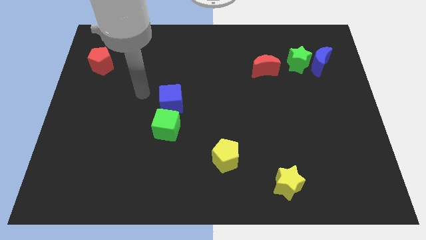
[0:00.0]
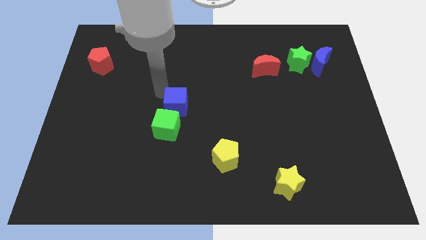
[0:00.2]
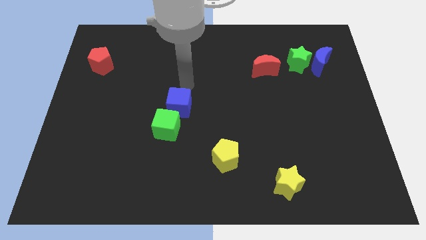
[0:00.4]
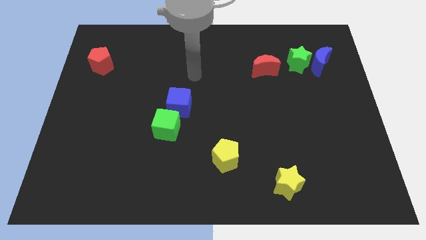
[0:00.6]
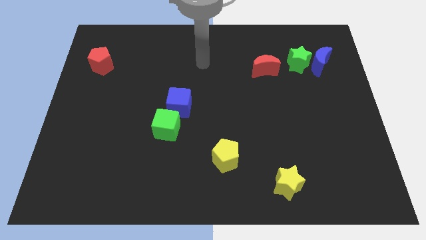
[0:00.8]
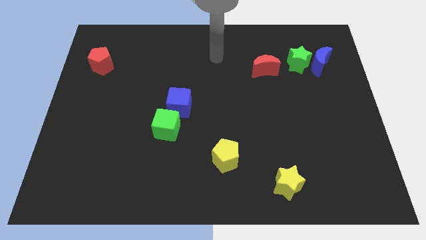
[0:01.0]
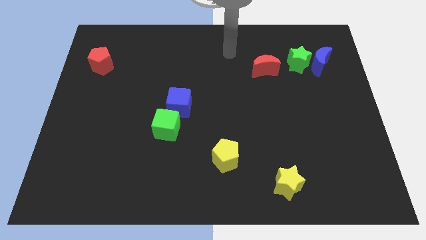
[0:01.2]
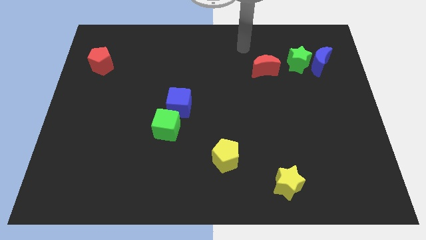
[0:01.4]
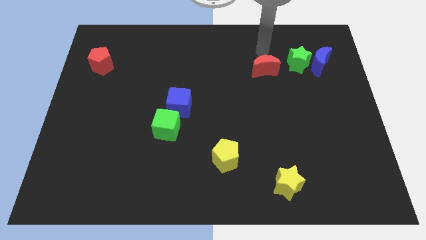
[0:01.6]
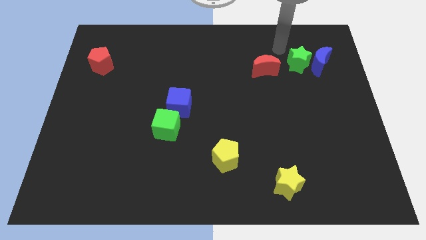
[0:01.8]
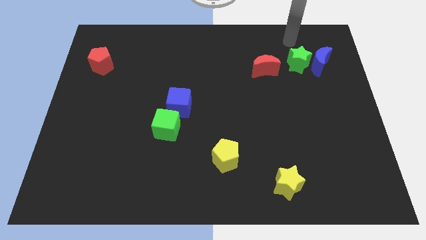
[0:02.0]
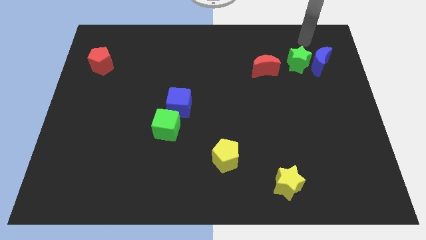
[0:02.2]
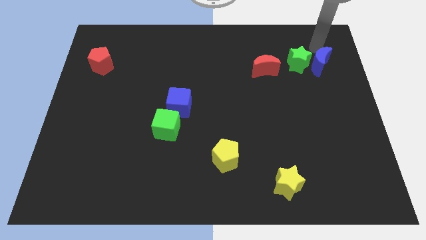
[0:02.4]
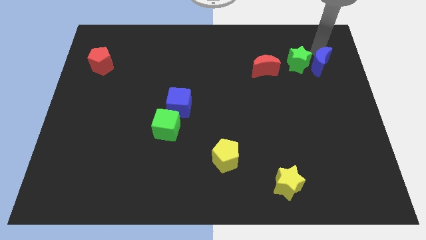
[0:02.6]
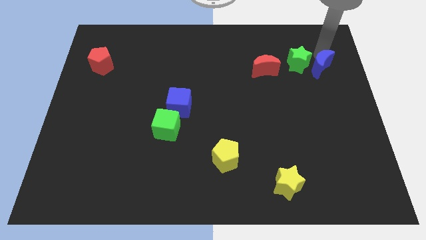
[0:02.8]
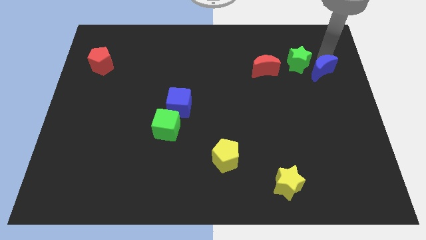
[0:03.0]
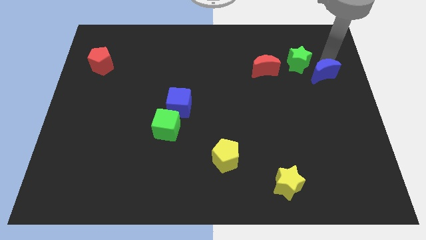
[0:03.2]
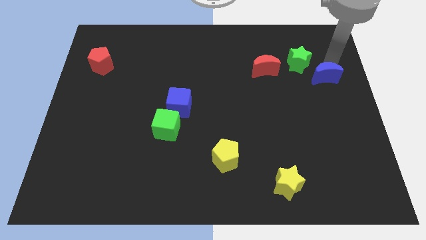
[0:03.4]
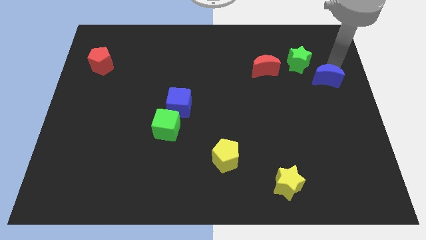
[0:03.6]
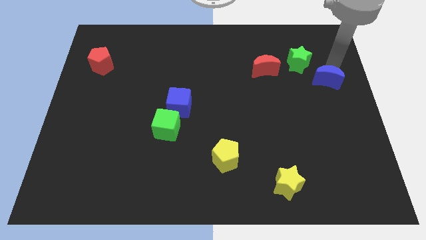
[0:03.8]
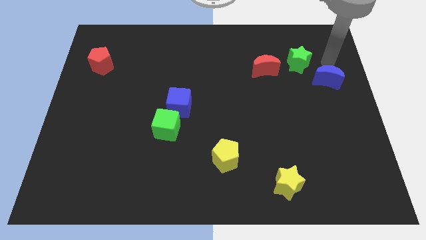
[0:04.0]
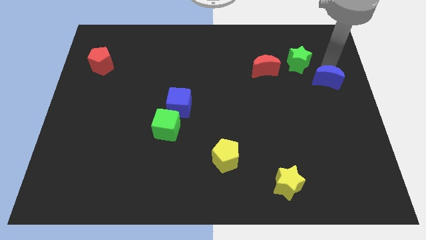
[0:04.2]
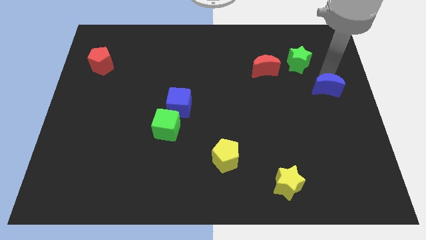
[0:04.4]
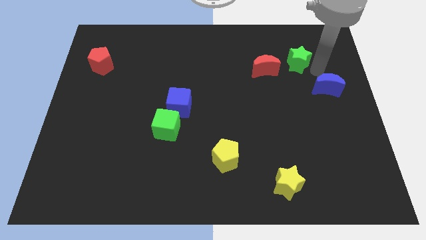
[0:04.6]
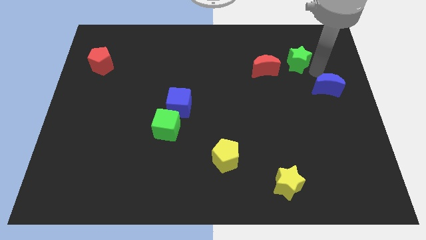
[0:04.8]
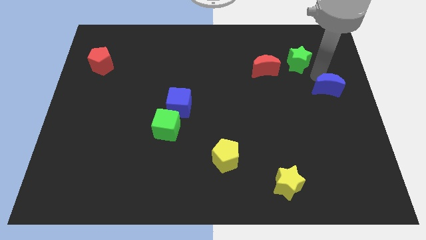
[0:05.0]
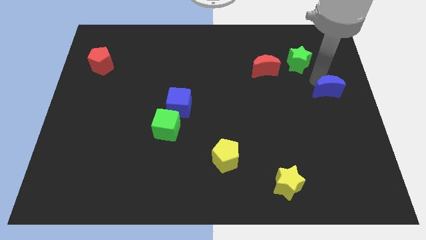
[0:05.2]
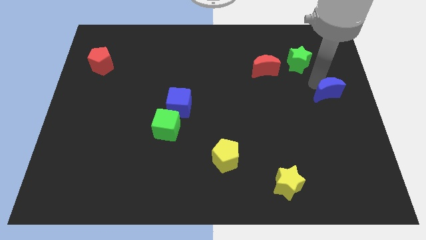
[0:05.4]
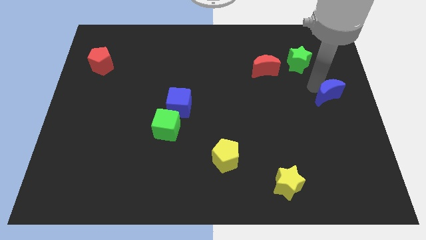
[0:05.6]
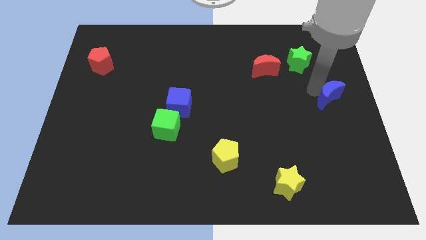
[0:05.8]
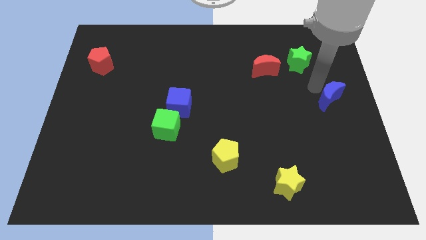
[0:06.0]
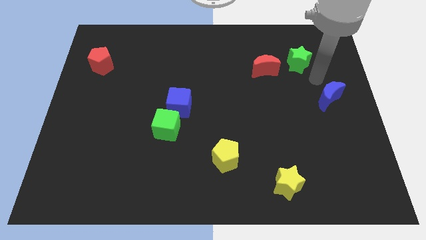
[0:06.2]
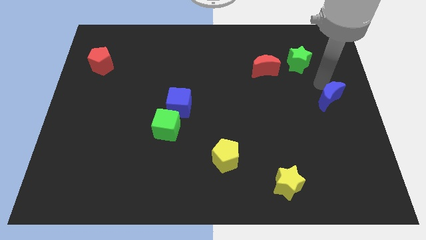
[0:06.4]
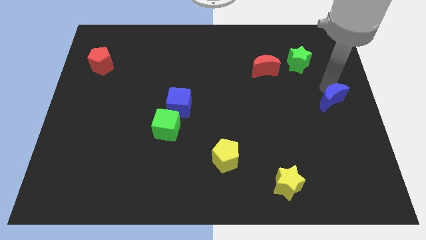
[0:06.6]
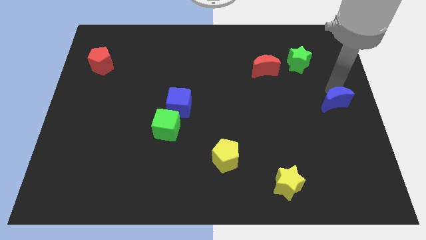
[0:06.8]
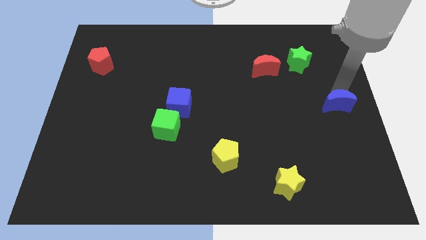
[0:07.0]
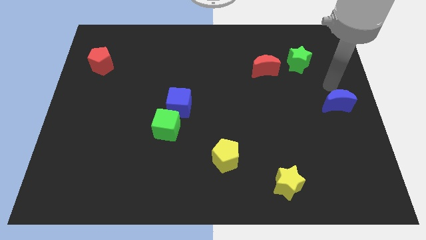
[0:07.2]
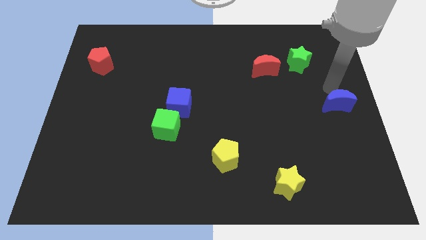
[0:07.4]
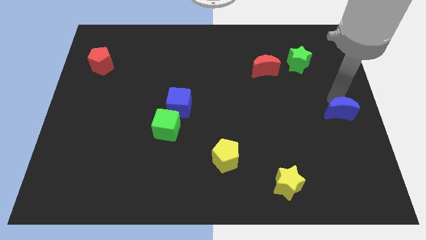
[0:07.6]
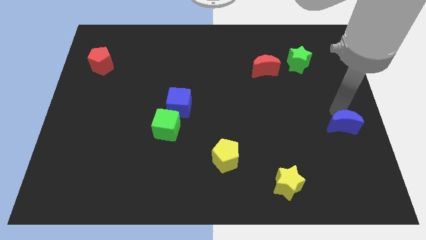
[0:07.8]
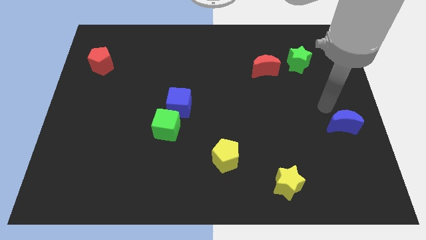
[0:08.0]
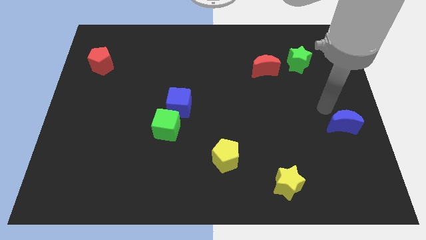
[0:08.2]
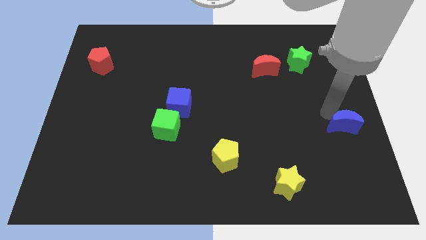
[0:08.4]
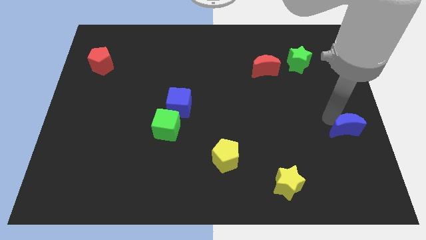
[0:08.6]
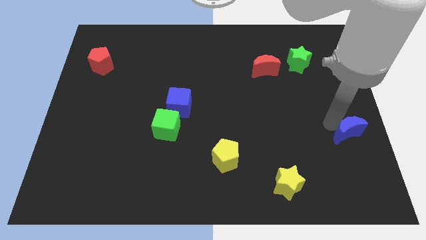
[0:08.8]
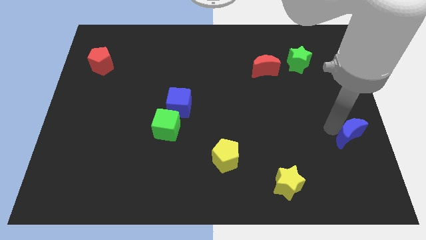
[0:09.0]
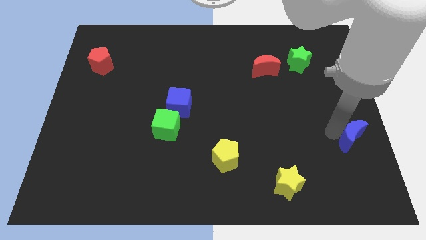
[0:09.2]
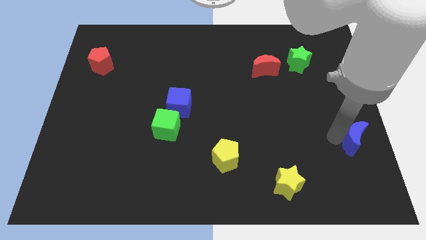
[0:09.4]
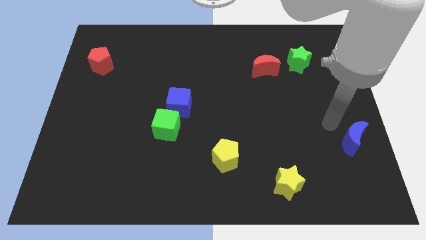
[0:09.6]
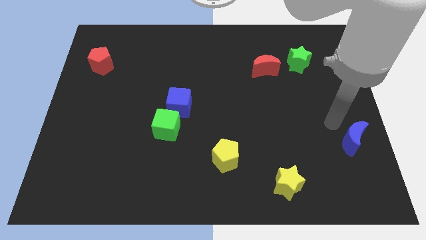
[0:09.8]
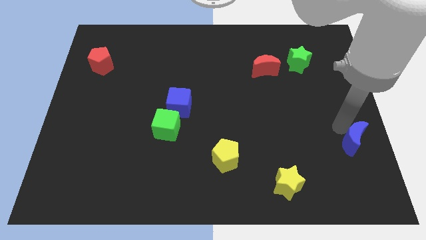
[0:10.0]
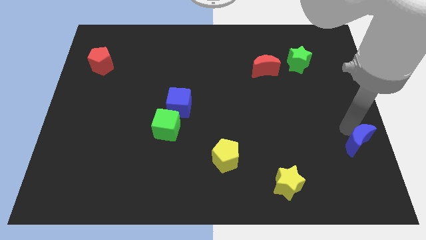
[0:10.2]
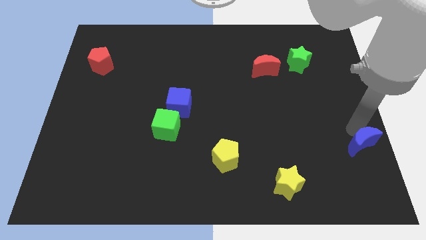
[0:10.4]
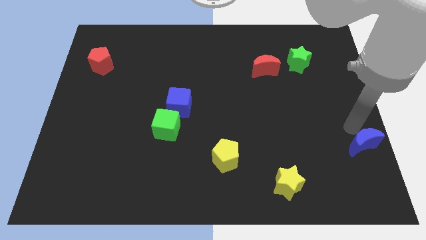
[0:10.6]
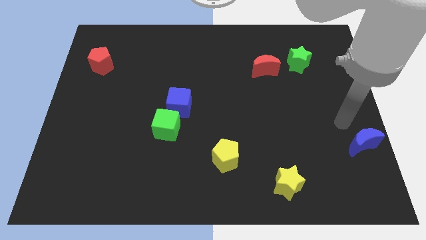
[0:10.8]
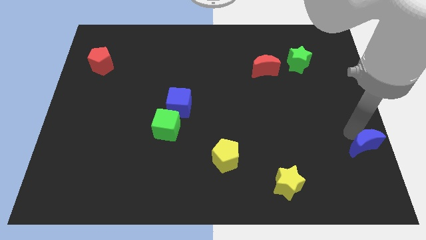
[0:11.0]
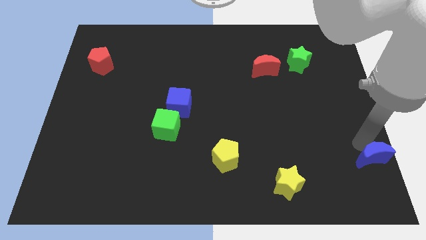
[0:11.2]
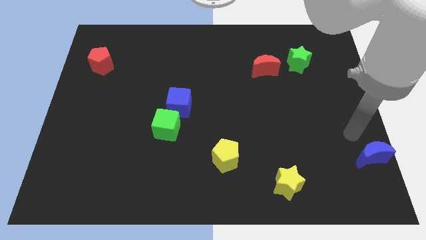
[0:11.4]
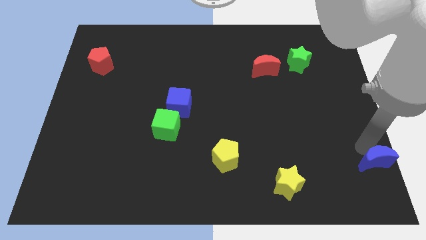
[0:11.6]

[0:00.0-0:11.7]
push the blue moon to the bottom right corner

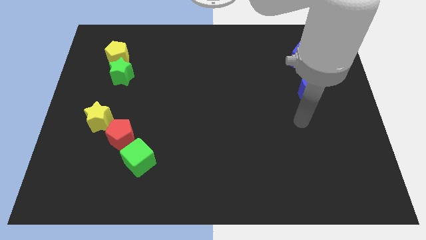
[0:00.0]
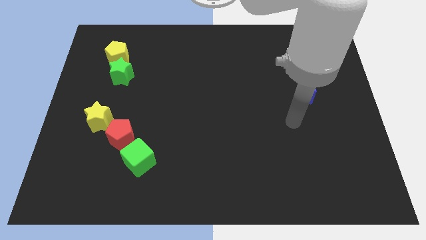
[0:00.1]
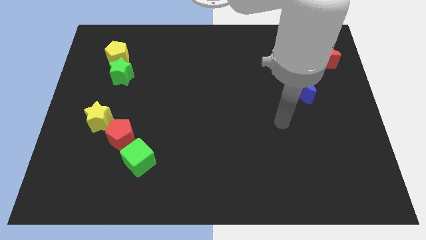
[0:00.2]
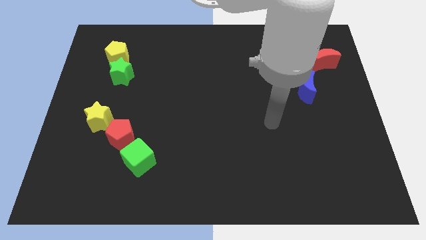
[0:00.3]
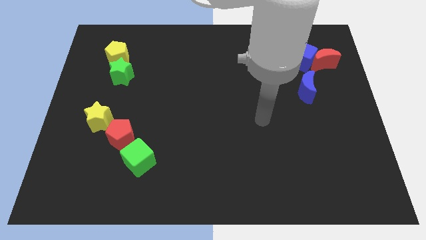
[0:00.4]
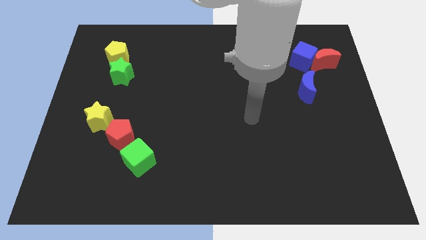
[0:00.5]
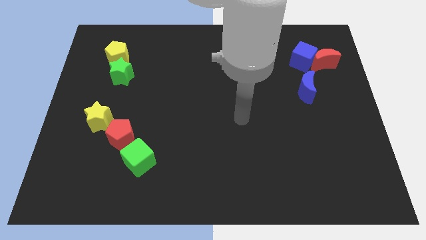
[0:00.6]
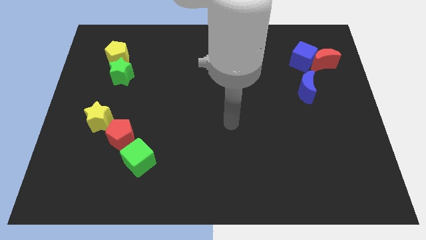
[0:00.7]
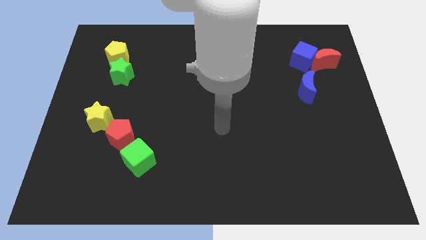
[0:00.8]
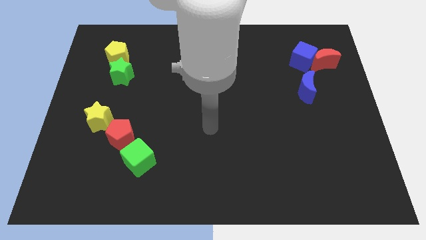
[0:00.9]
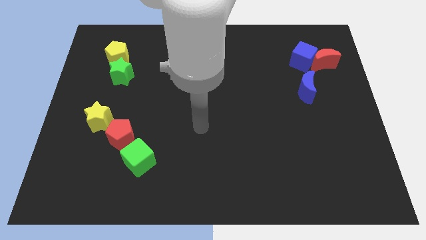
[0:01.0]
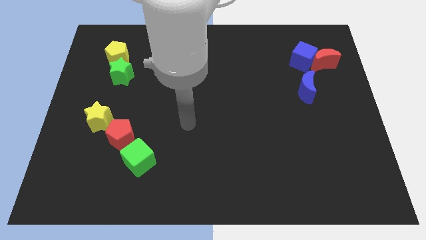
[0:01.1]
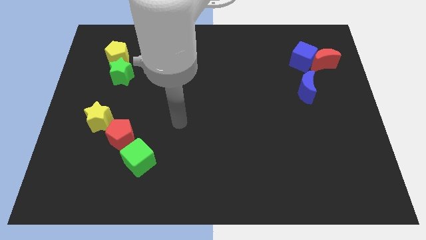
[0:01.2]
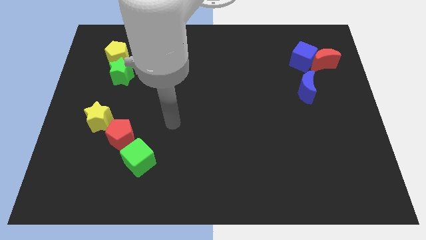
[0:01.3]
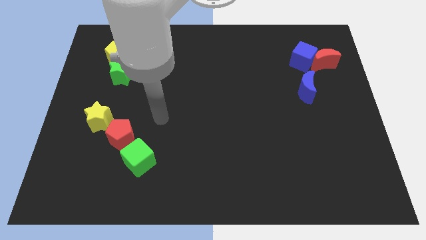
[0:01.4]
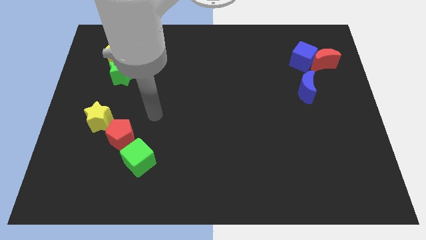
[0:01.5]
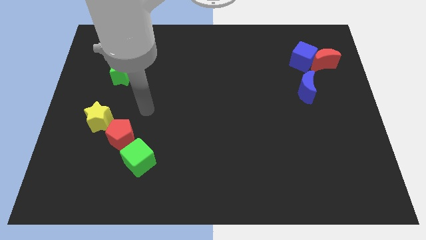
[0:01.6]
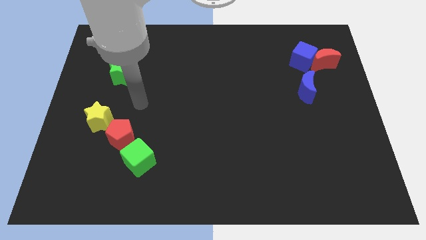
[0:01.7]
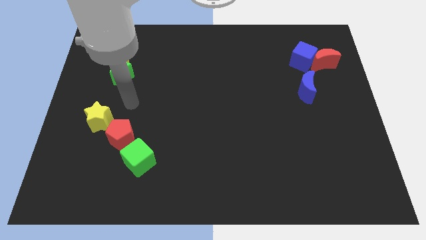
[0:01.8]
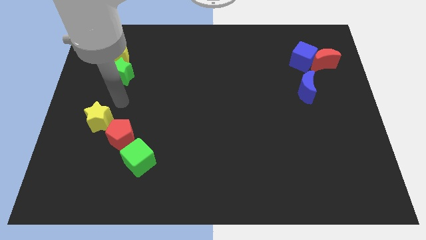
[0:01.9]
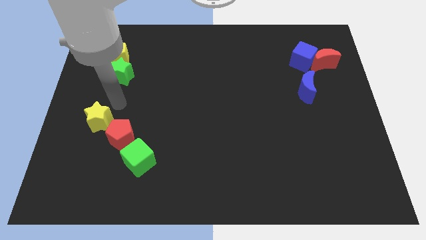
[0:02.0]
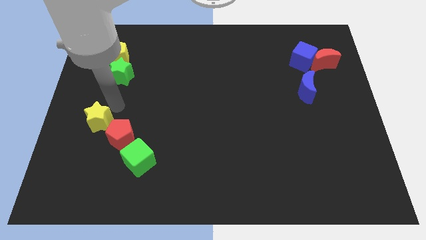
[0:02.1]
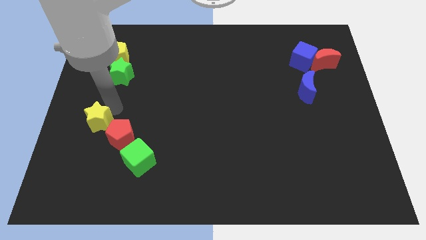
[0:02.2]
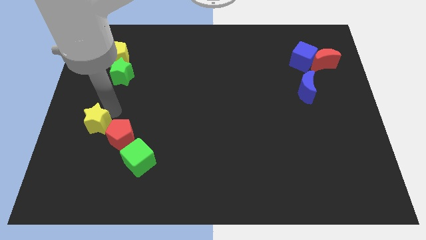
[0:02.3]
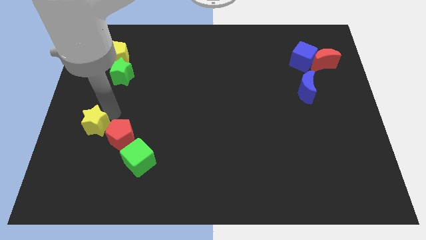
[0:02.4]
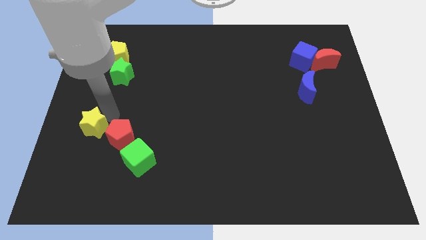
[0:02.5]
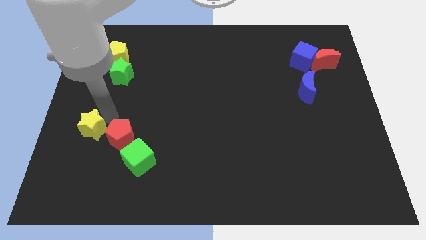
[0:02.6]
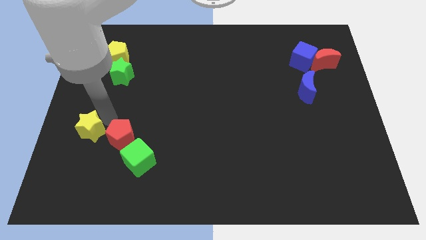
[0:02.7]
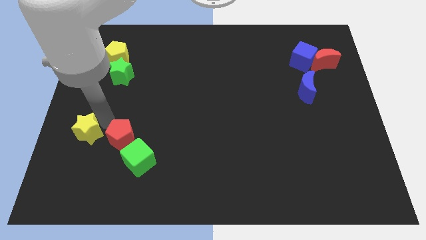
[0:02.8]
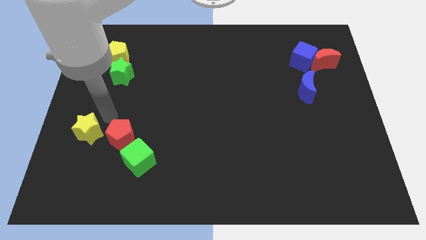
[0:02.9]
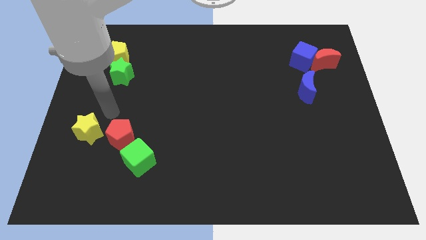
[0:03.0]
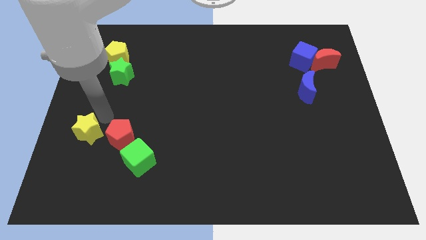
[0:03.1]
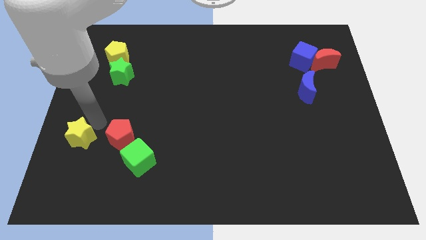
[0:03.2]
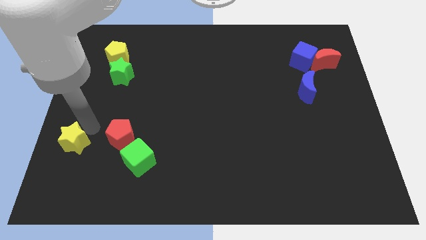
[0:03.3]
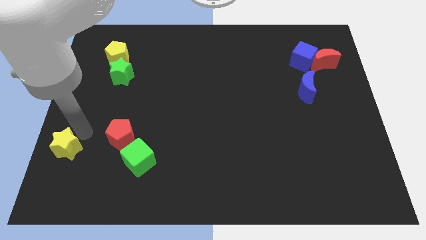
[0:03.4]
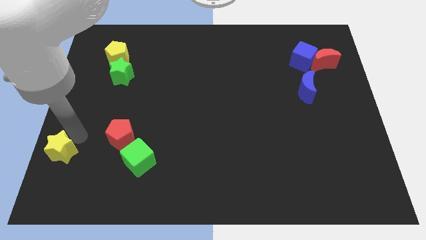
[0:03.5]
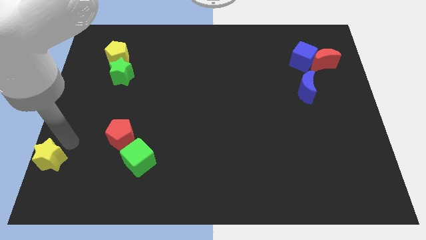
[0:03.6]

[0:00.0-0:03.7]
put the yellow star to the bottom left of the board
